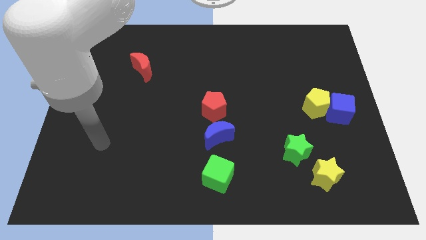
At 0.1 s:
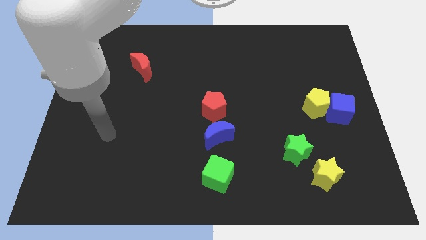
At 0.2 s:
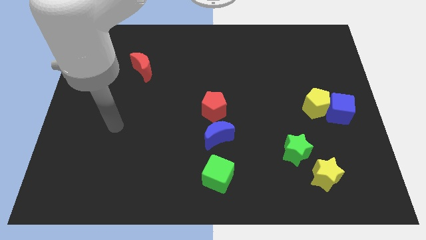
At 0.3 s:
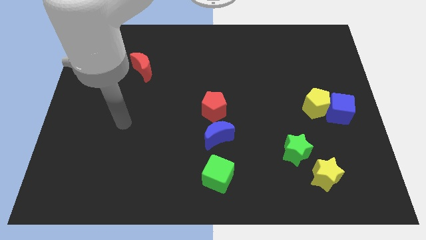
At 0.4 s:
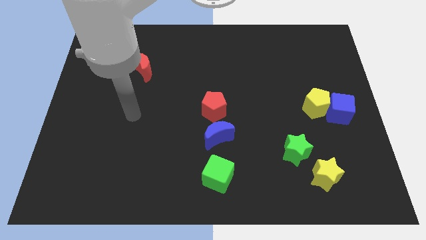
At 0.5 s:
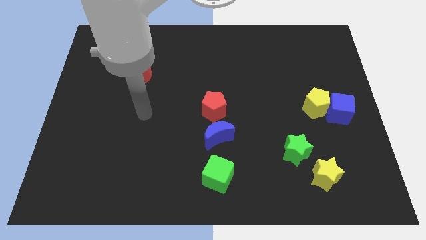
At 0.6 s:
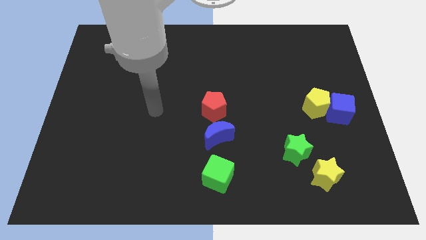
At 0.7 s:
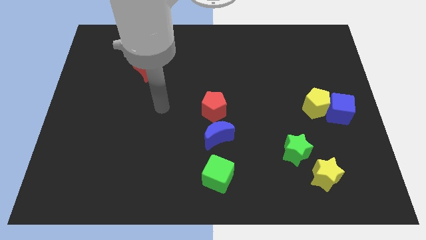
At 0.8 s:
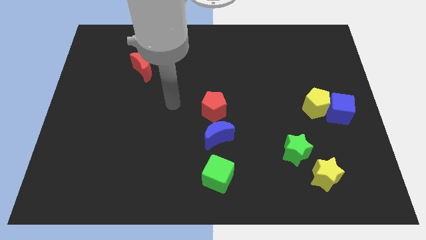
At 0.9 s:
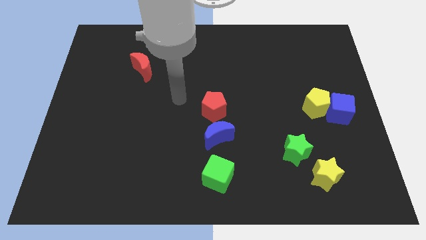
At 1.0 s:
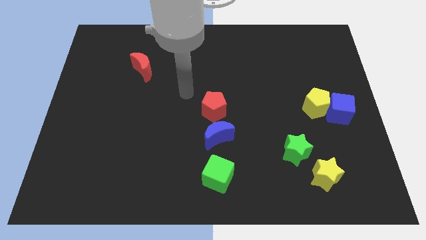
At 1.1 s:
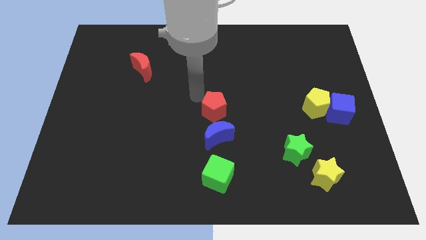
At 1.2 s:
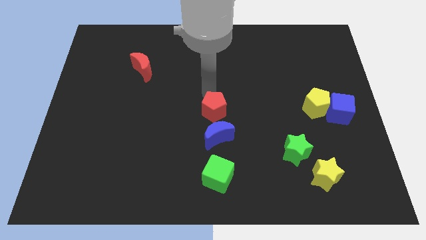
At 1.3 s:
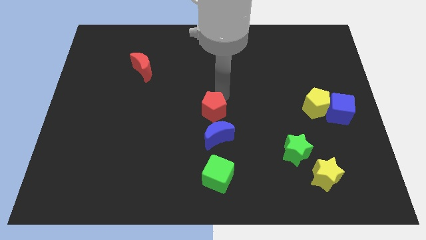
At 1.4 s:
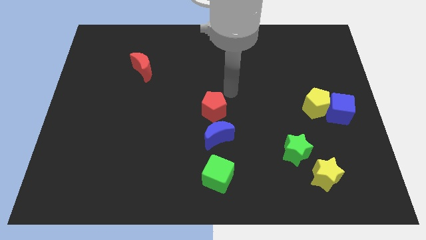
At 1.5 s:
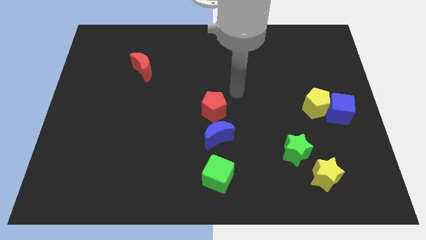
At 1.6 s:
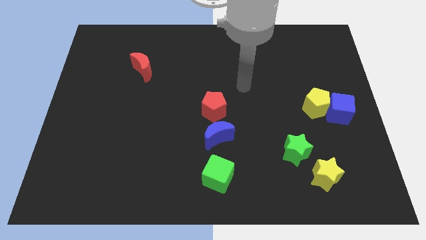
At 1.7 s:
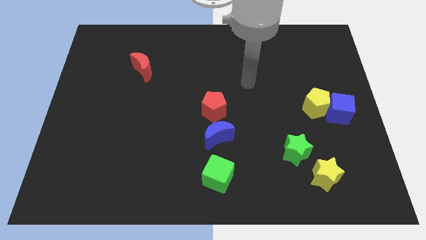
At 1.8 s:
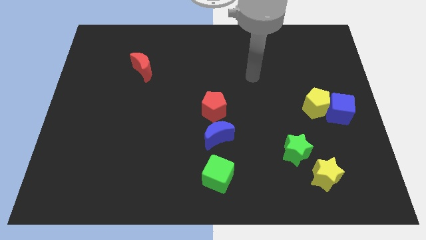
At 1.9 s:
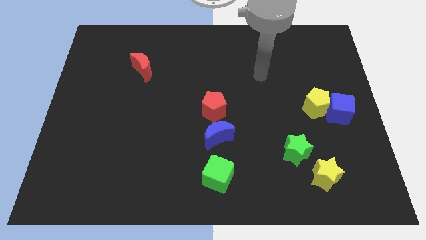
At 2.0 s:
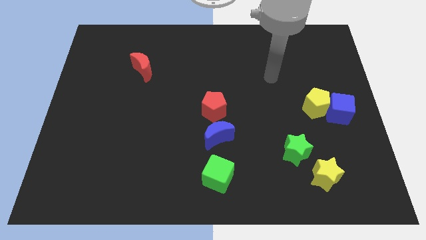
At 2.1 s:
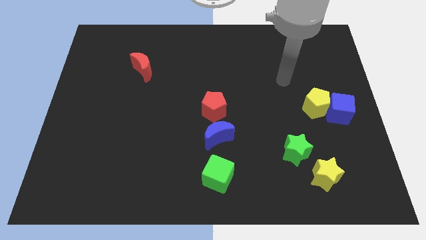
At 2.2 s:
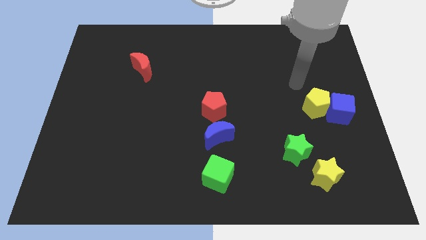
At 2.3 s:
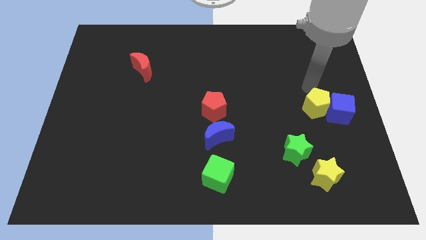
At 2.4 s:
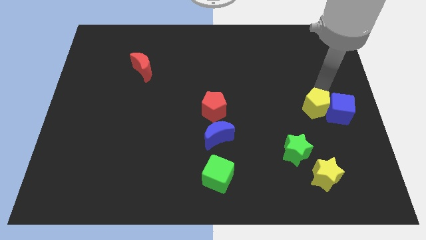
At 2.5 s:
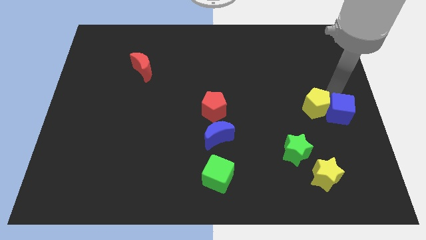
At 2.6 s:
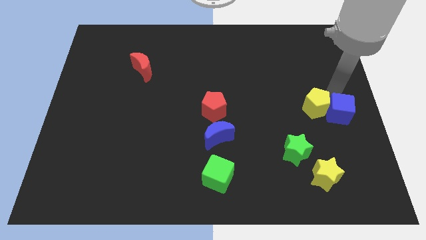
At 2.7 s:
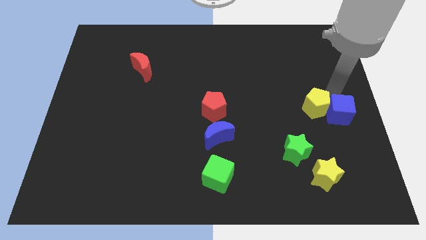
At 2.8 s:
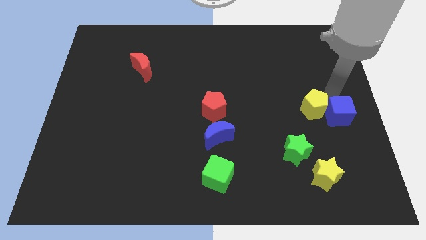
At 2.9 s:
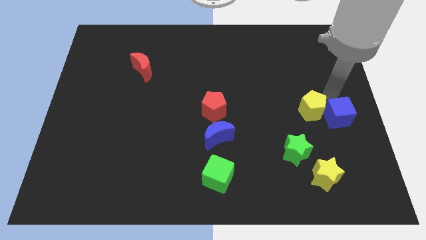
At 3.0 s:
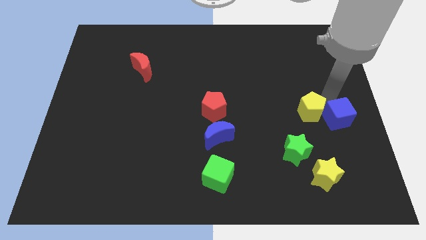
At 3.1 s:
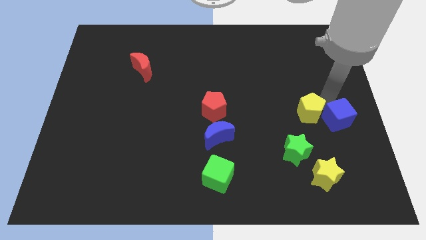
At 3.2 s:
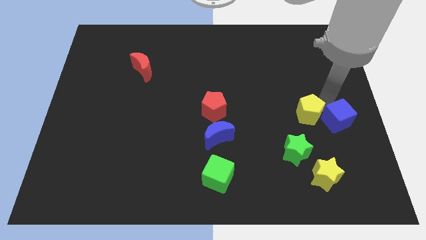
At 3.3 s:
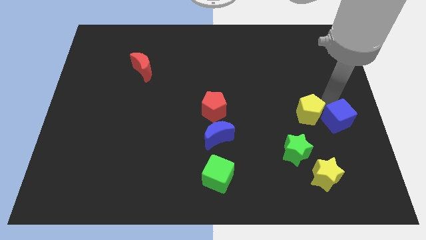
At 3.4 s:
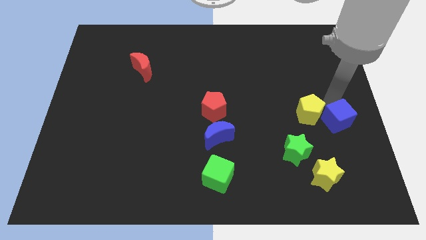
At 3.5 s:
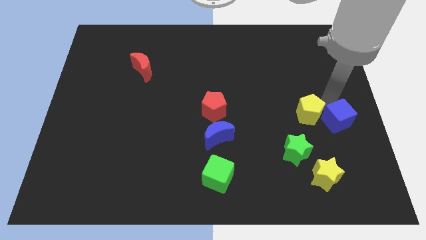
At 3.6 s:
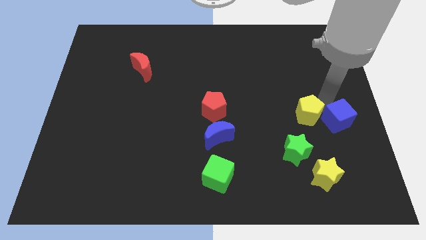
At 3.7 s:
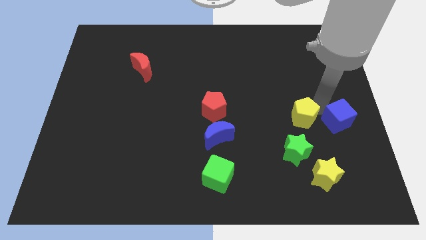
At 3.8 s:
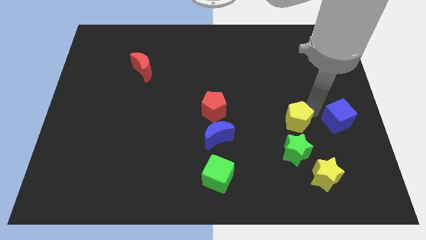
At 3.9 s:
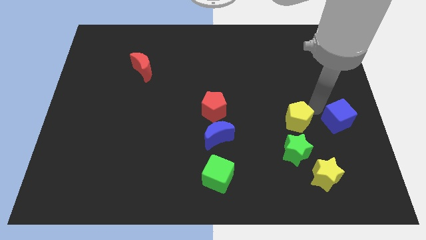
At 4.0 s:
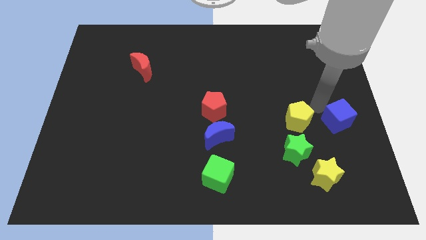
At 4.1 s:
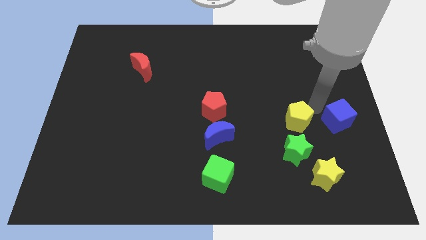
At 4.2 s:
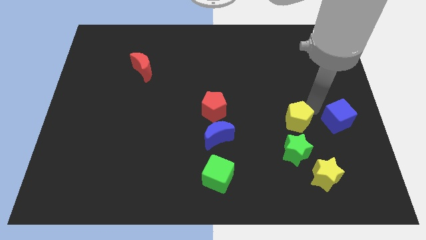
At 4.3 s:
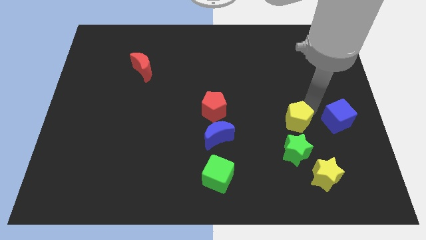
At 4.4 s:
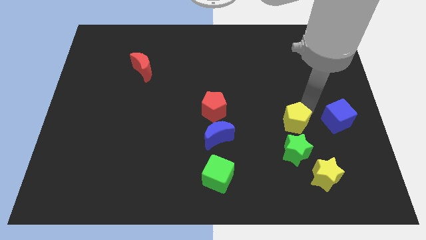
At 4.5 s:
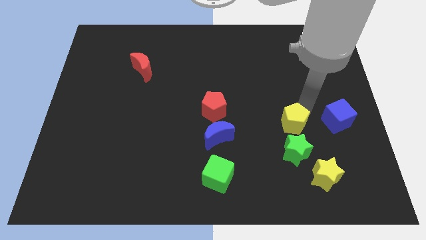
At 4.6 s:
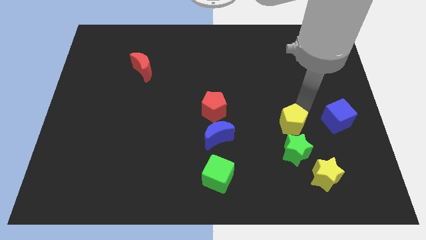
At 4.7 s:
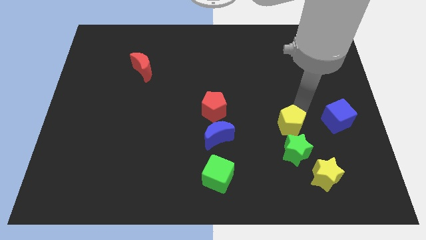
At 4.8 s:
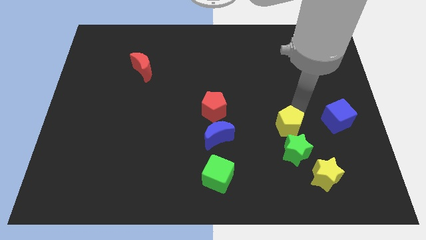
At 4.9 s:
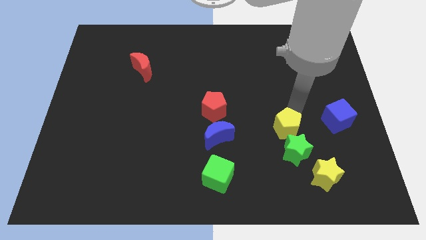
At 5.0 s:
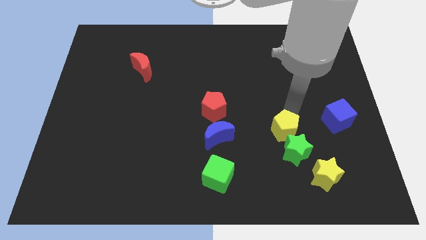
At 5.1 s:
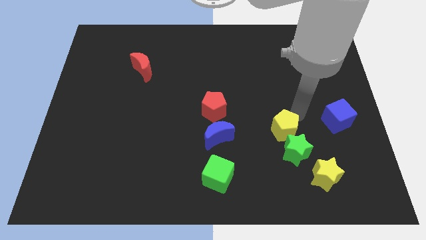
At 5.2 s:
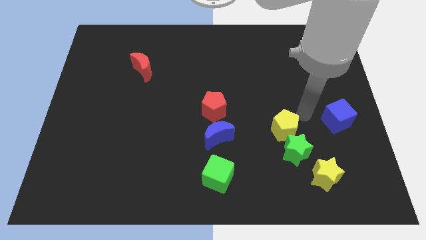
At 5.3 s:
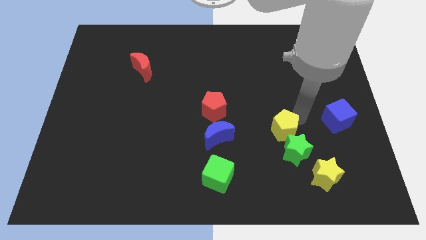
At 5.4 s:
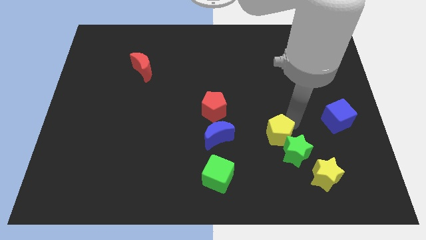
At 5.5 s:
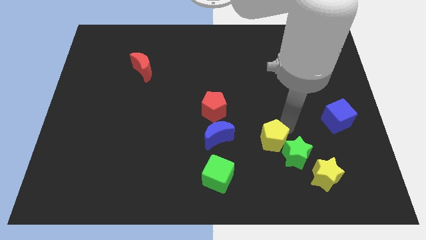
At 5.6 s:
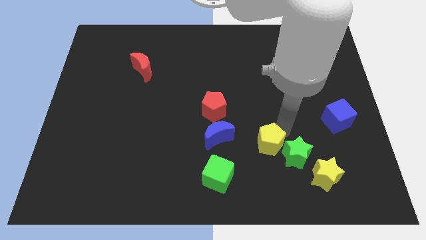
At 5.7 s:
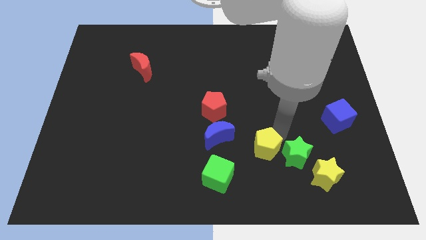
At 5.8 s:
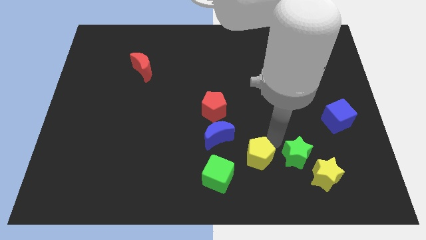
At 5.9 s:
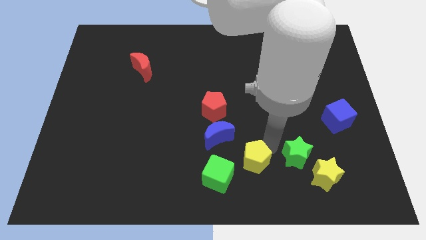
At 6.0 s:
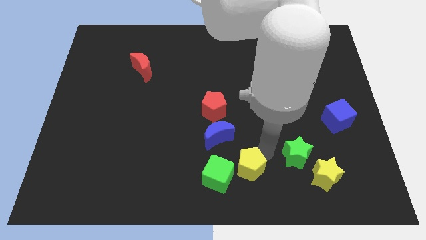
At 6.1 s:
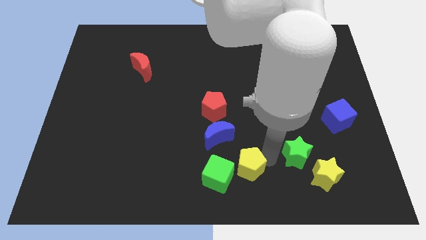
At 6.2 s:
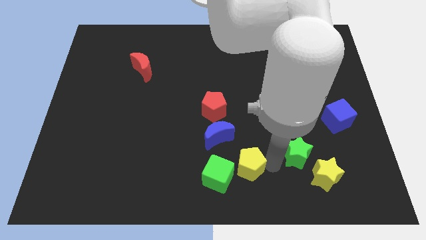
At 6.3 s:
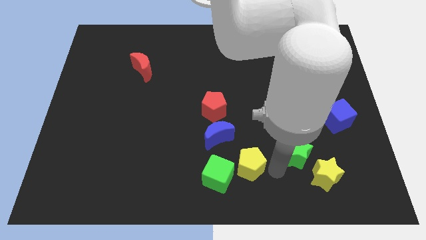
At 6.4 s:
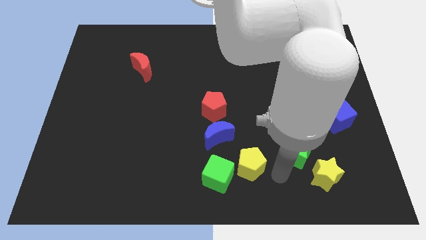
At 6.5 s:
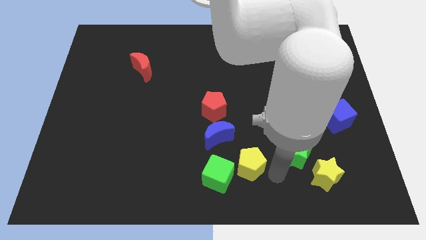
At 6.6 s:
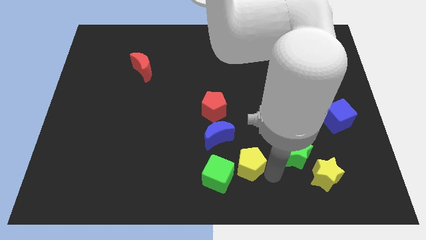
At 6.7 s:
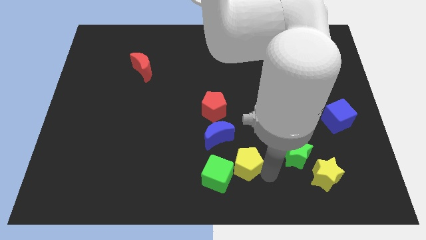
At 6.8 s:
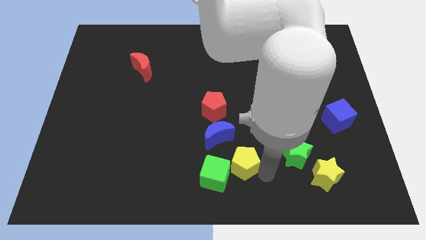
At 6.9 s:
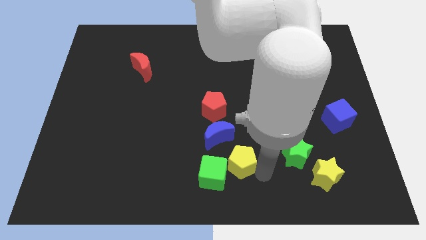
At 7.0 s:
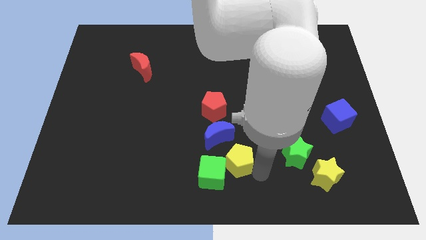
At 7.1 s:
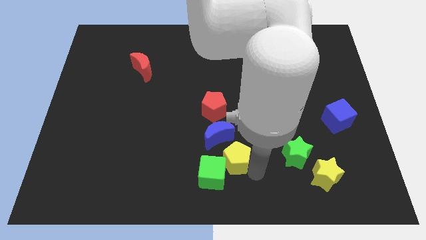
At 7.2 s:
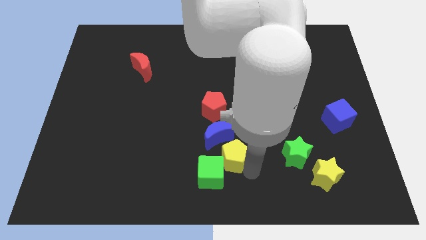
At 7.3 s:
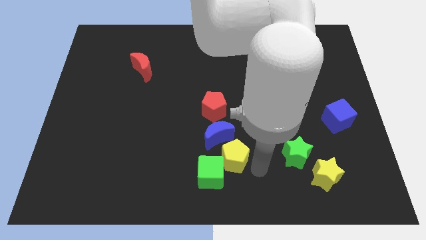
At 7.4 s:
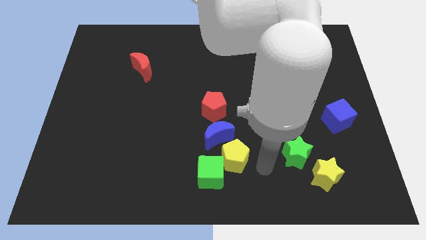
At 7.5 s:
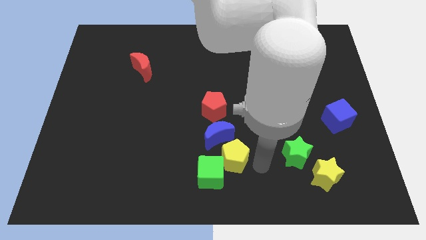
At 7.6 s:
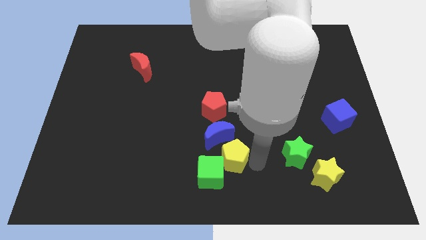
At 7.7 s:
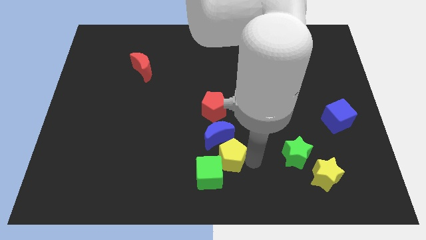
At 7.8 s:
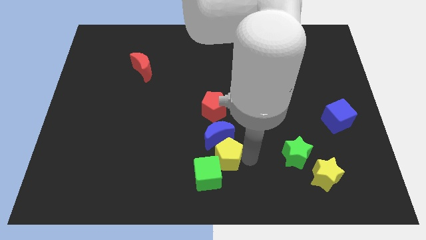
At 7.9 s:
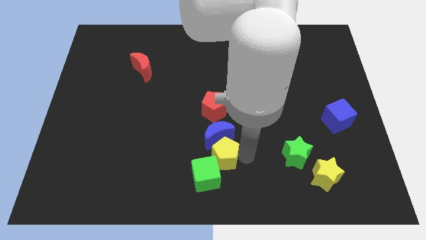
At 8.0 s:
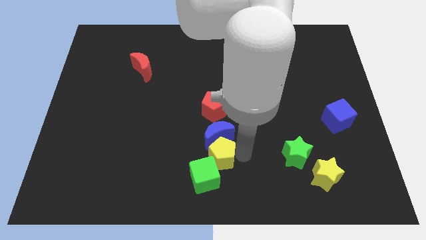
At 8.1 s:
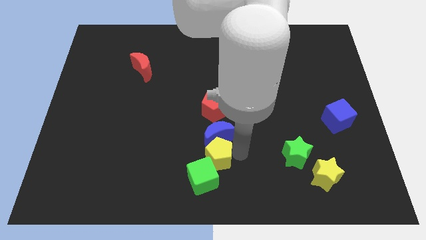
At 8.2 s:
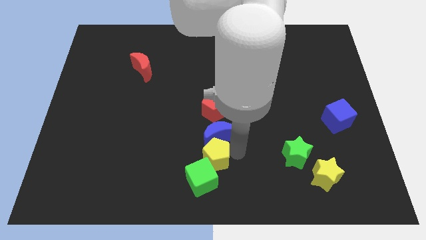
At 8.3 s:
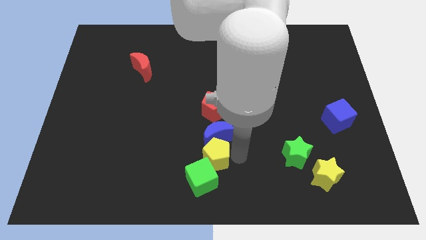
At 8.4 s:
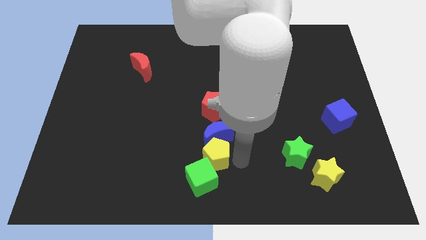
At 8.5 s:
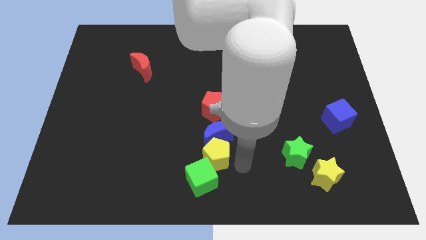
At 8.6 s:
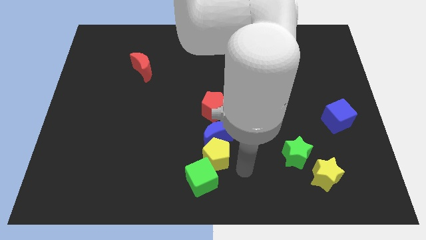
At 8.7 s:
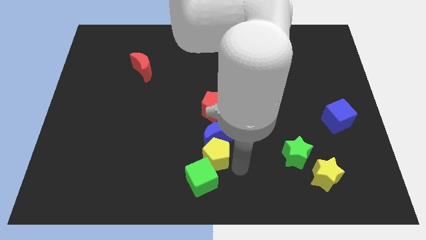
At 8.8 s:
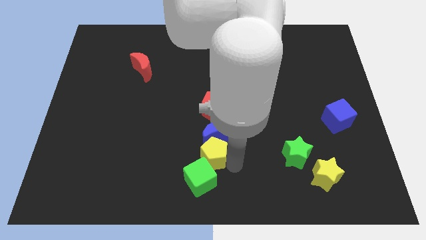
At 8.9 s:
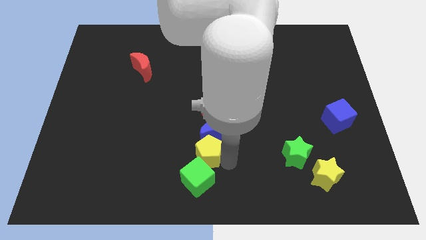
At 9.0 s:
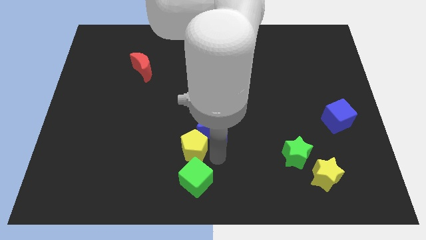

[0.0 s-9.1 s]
move the yellow pentagon to the left side of the blue moon
